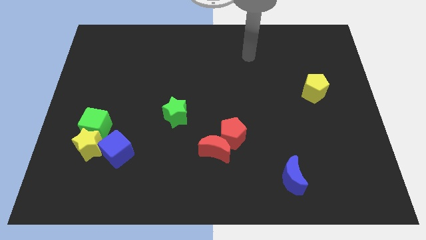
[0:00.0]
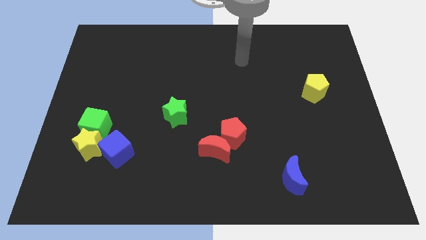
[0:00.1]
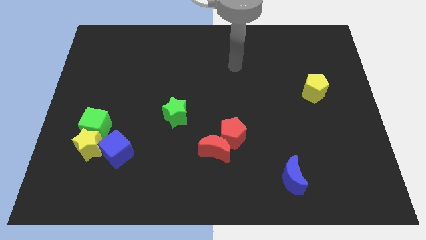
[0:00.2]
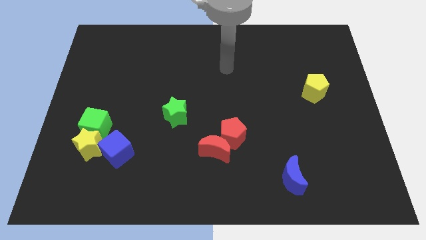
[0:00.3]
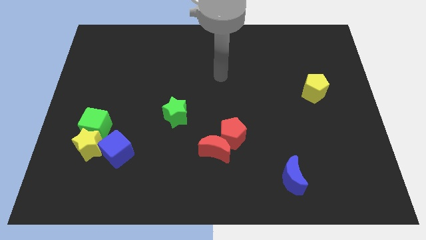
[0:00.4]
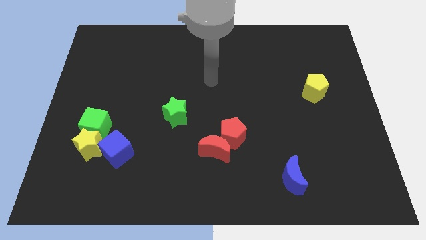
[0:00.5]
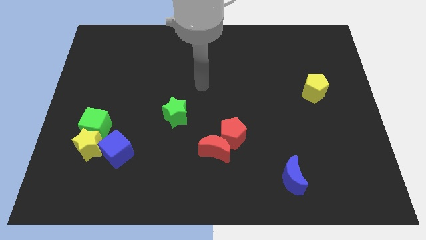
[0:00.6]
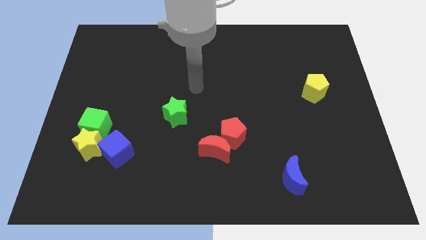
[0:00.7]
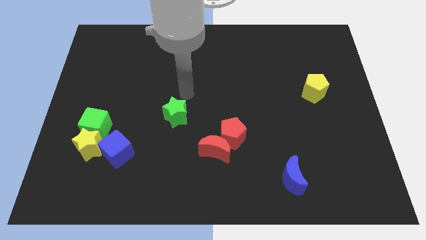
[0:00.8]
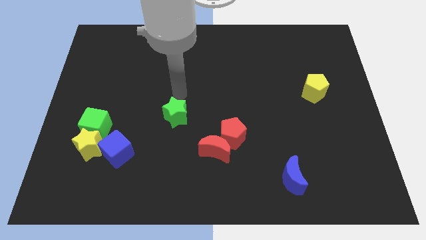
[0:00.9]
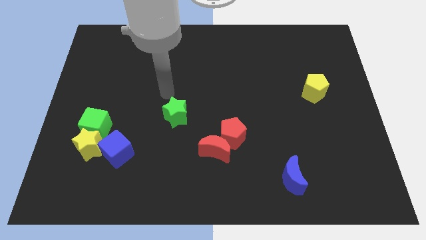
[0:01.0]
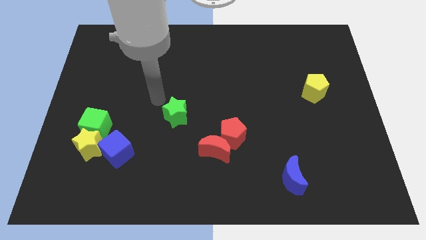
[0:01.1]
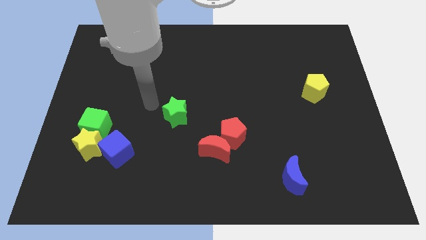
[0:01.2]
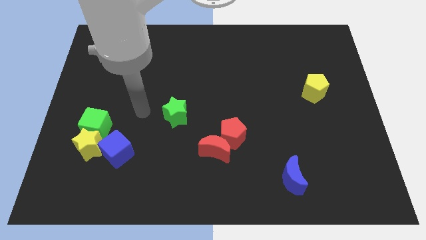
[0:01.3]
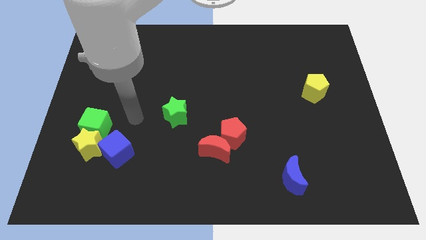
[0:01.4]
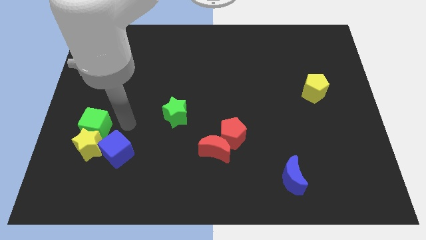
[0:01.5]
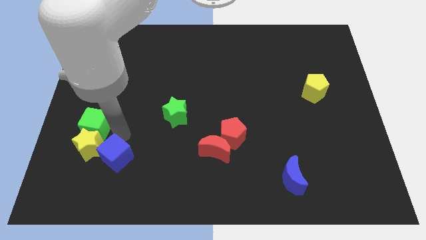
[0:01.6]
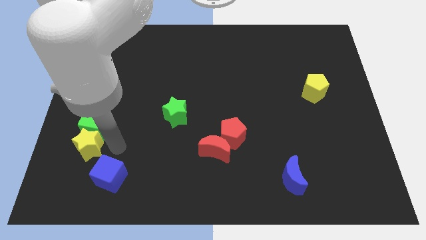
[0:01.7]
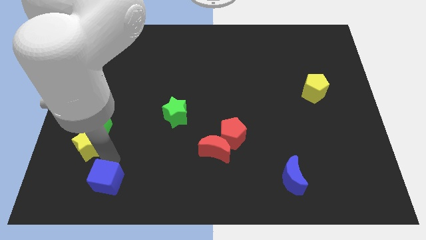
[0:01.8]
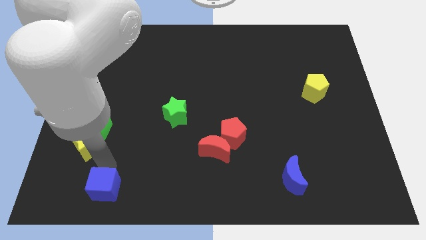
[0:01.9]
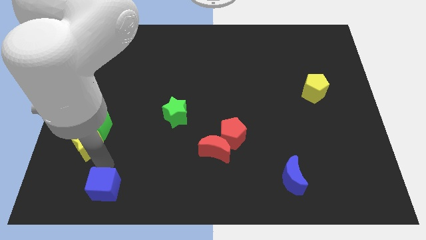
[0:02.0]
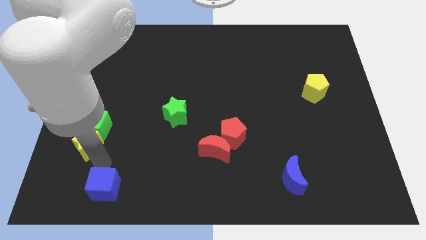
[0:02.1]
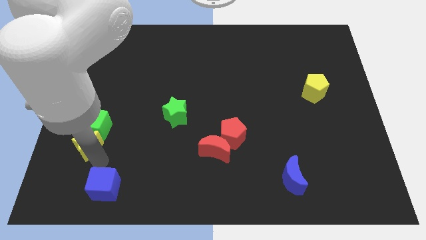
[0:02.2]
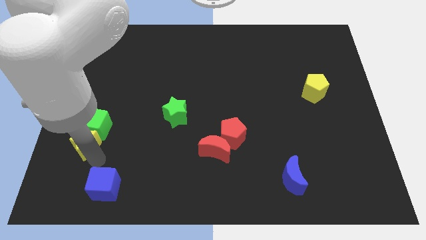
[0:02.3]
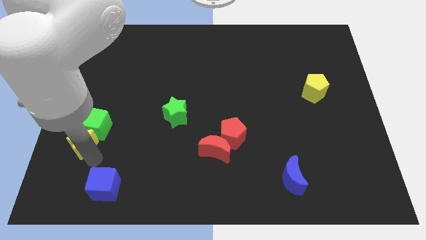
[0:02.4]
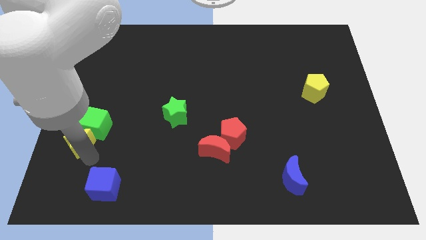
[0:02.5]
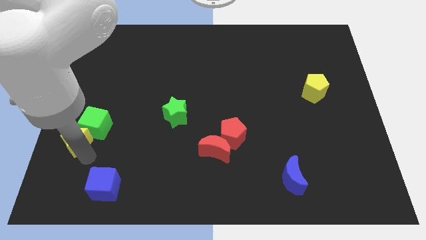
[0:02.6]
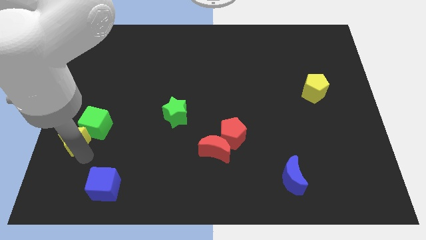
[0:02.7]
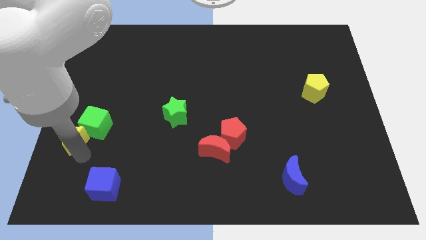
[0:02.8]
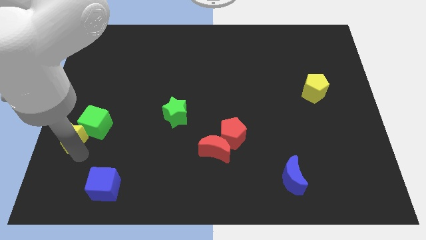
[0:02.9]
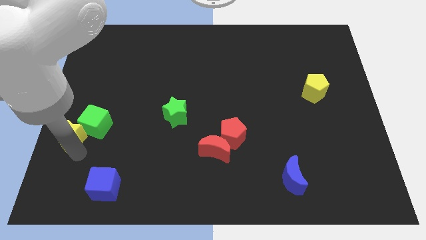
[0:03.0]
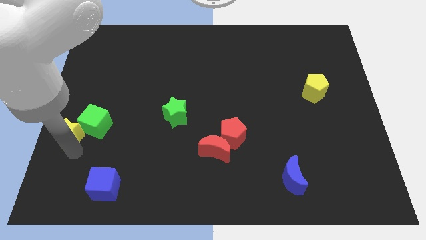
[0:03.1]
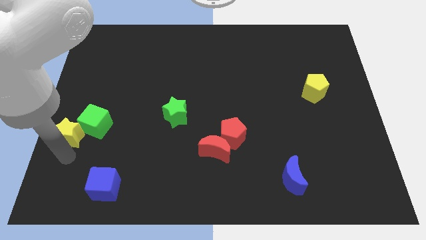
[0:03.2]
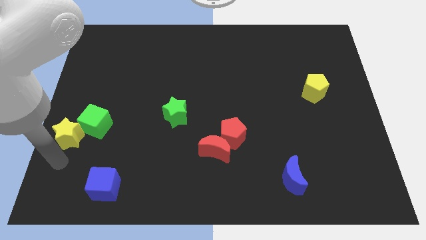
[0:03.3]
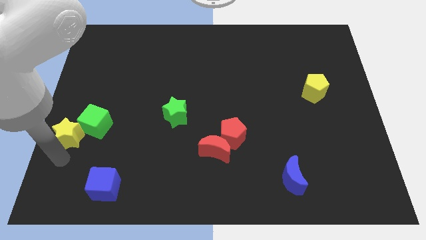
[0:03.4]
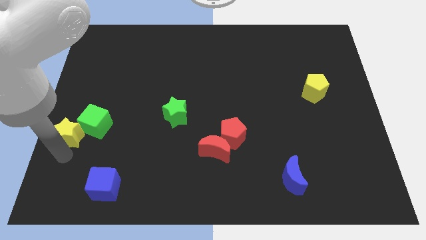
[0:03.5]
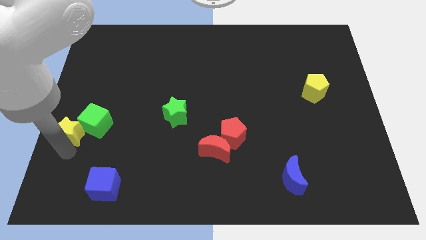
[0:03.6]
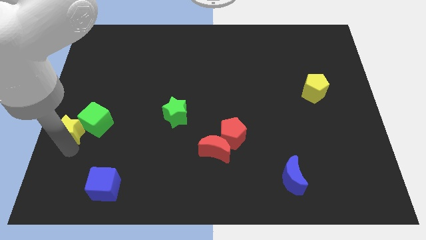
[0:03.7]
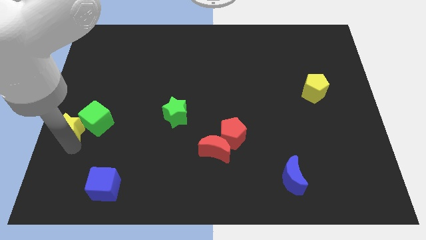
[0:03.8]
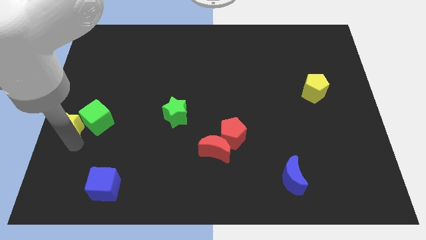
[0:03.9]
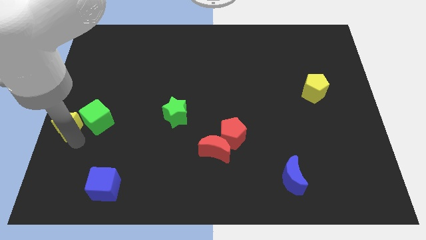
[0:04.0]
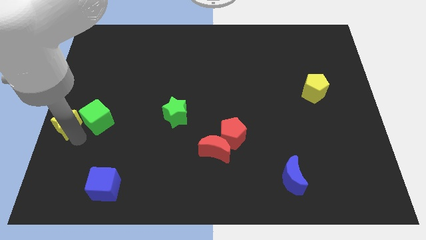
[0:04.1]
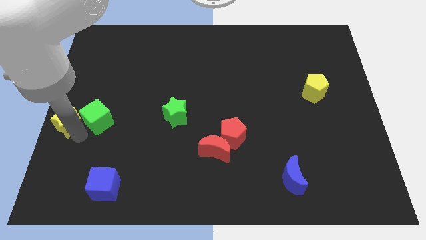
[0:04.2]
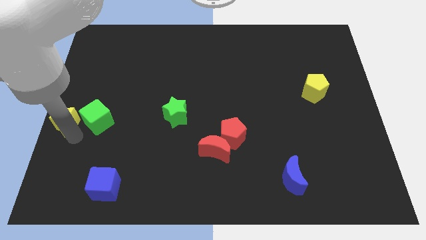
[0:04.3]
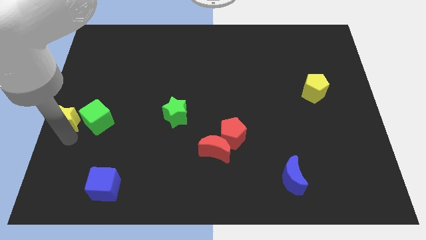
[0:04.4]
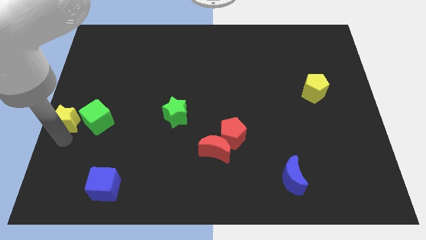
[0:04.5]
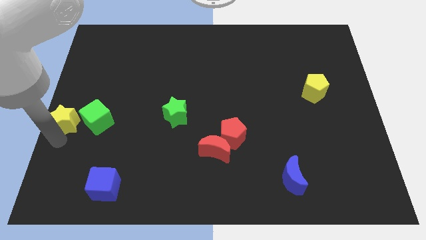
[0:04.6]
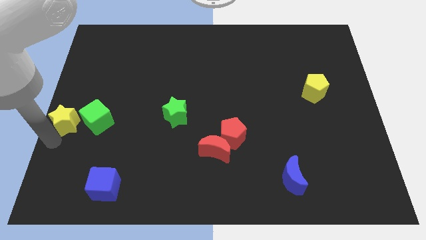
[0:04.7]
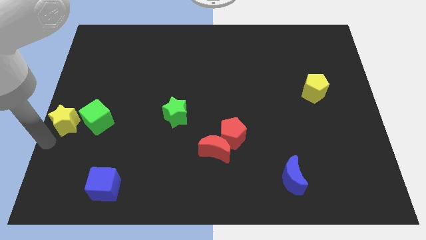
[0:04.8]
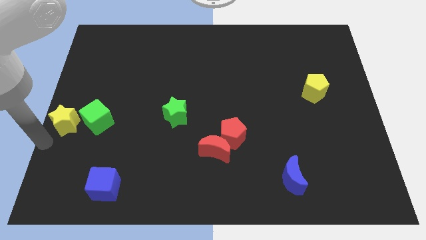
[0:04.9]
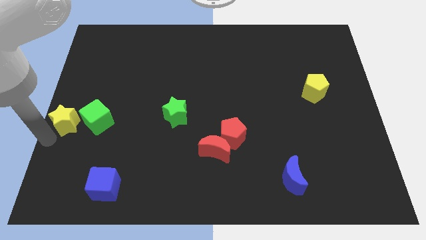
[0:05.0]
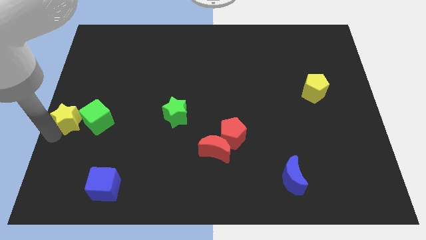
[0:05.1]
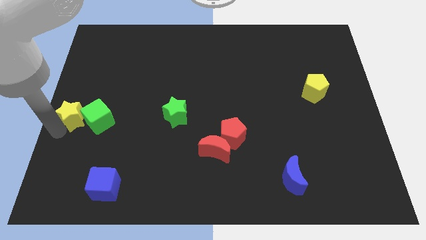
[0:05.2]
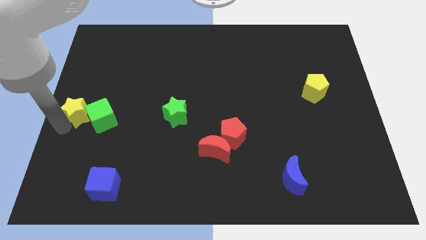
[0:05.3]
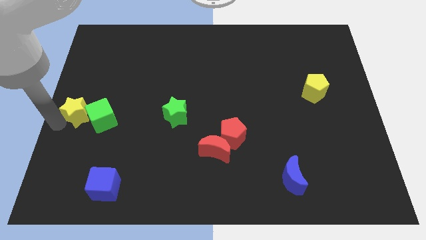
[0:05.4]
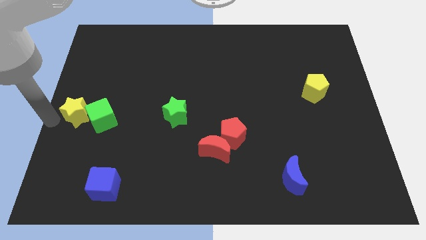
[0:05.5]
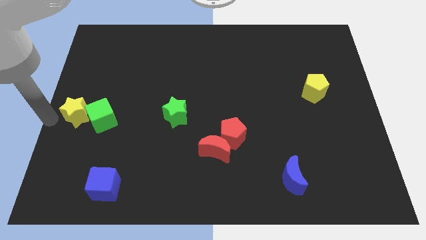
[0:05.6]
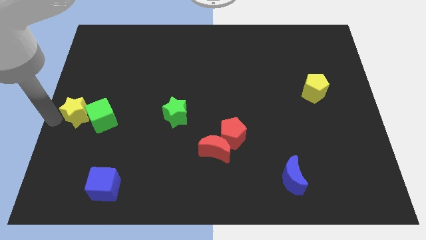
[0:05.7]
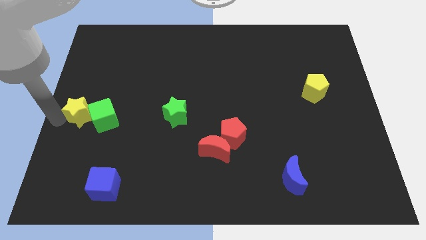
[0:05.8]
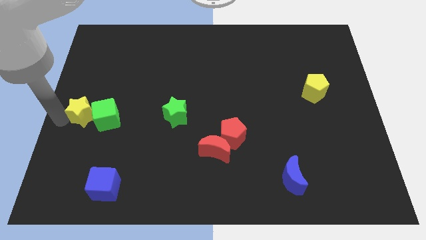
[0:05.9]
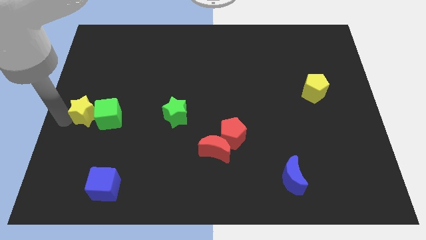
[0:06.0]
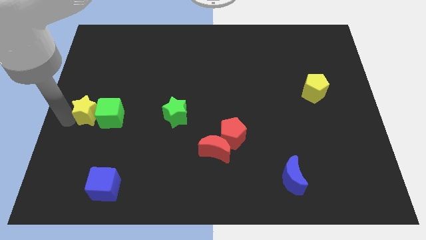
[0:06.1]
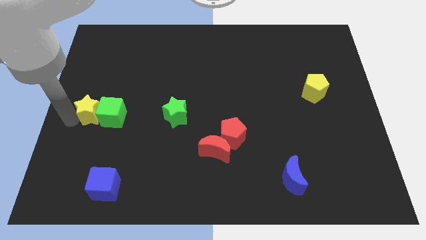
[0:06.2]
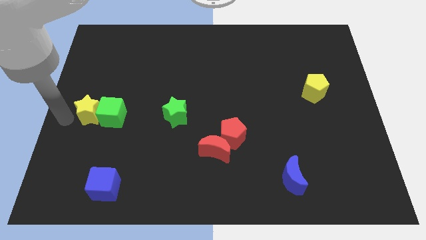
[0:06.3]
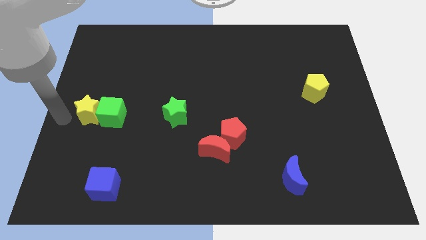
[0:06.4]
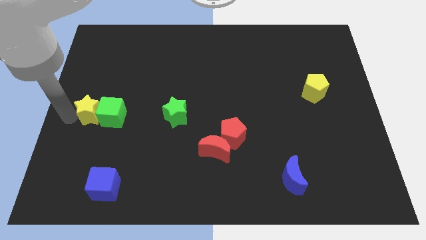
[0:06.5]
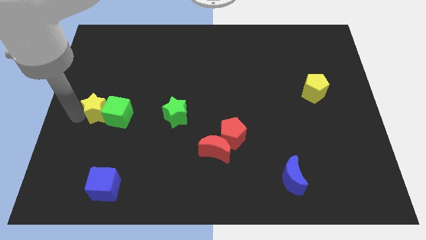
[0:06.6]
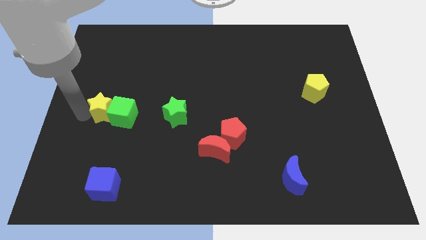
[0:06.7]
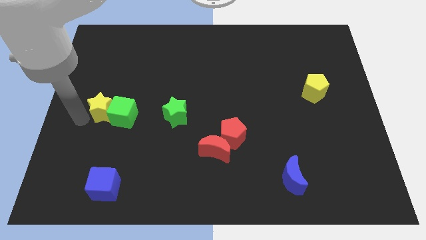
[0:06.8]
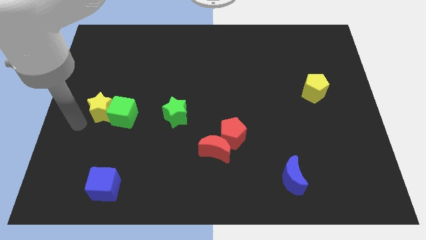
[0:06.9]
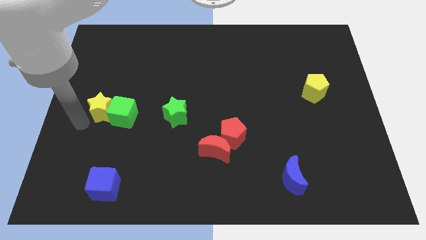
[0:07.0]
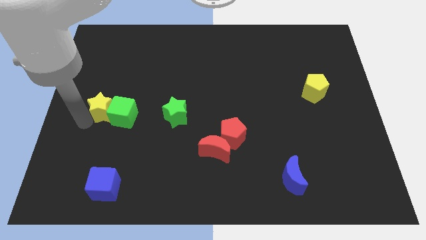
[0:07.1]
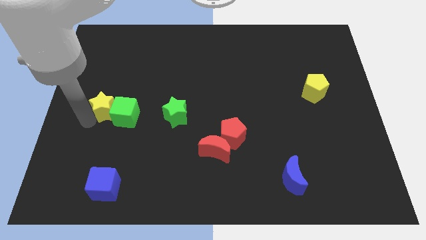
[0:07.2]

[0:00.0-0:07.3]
push the yellow star upwards and right slightly

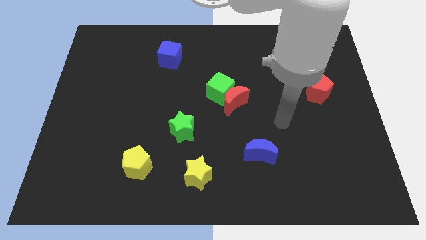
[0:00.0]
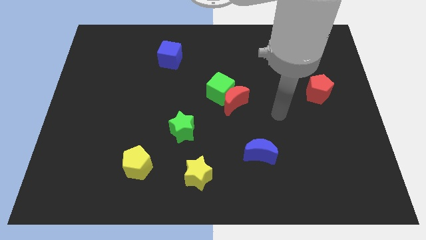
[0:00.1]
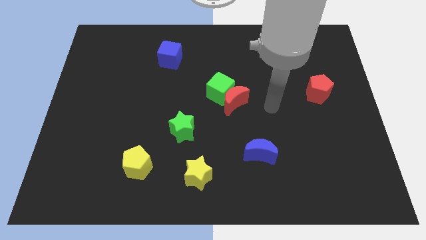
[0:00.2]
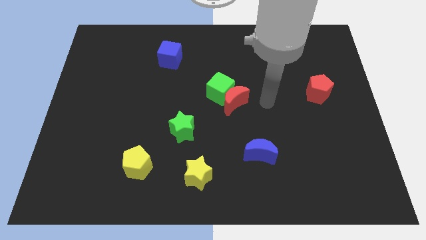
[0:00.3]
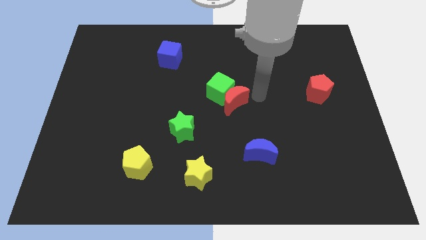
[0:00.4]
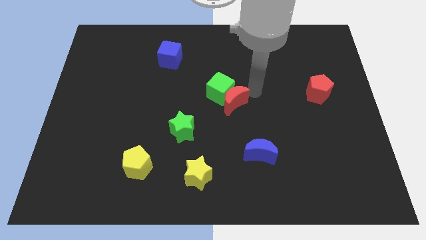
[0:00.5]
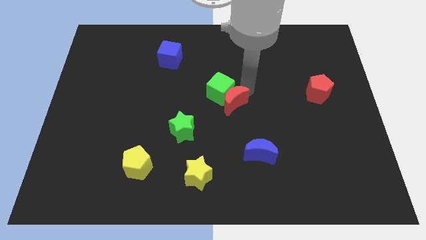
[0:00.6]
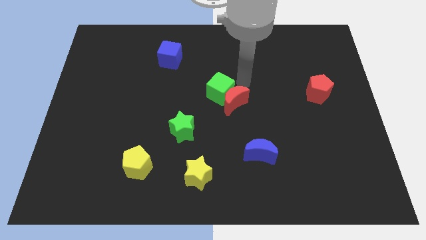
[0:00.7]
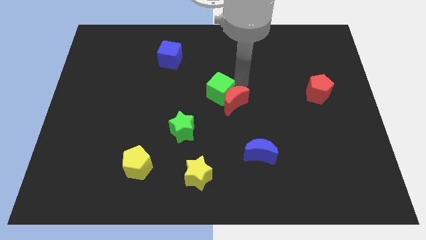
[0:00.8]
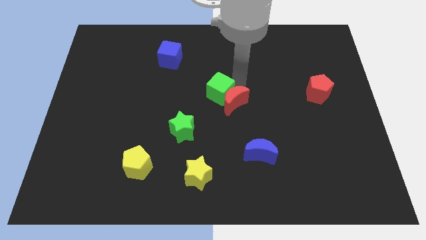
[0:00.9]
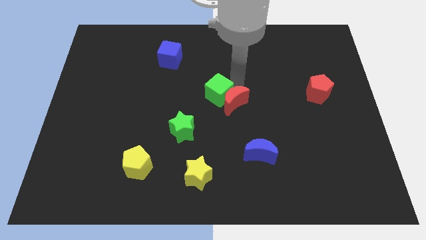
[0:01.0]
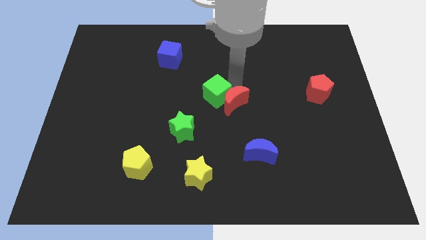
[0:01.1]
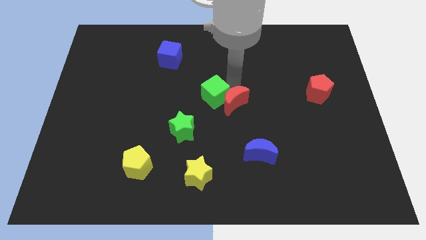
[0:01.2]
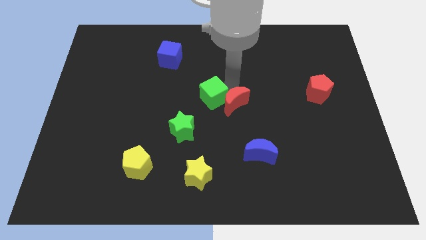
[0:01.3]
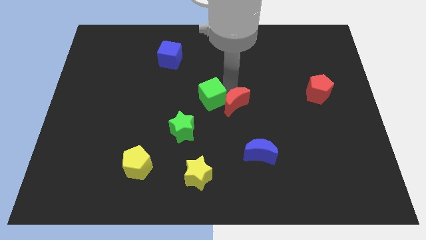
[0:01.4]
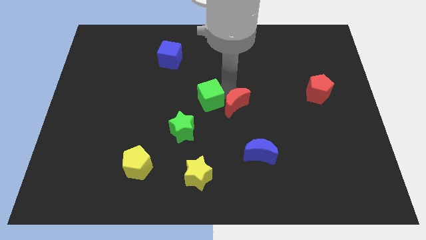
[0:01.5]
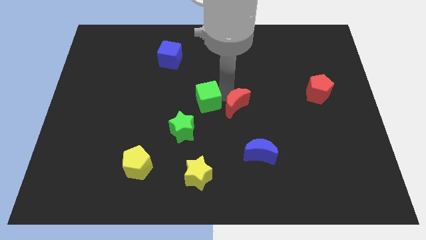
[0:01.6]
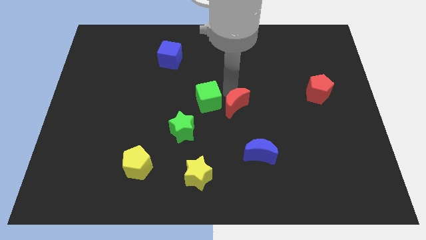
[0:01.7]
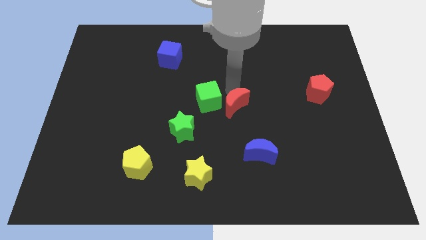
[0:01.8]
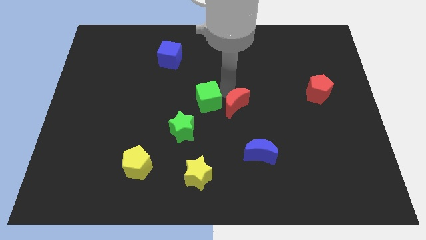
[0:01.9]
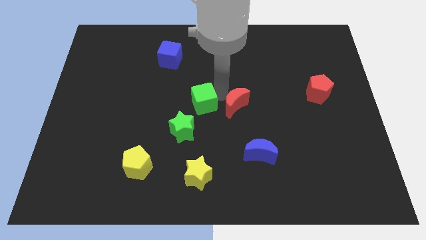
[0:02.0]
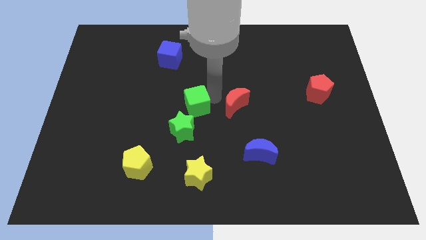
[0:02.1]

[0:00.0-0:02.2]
slightly move the green cube diagonally down and to the left
